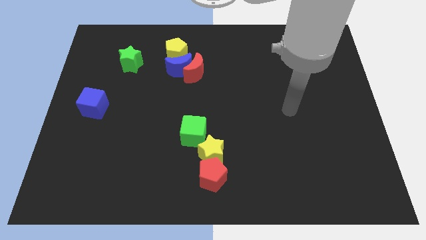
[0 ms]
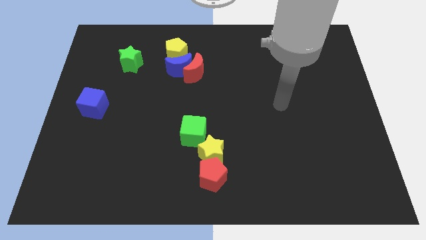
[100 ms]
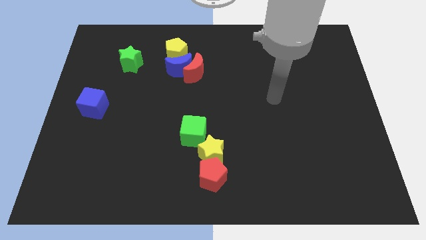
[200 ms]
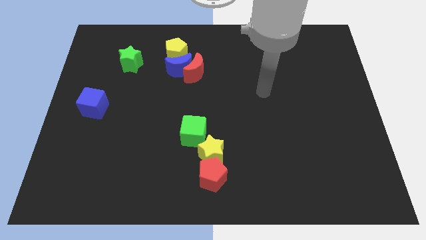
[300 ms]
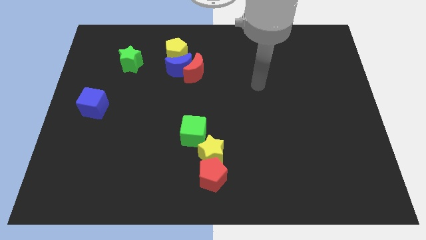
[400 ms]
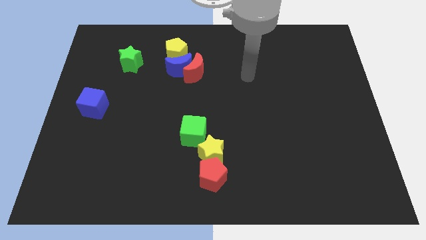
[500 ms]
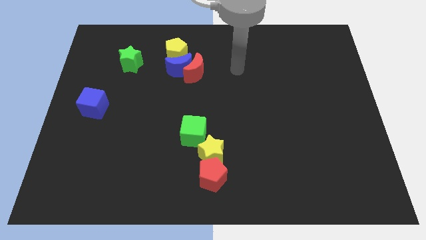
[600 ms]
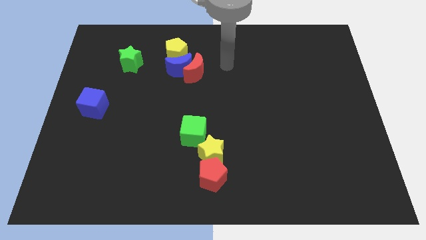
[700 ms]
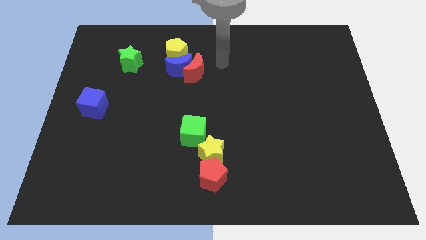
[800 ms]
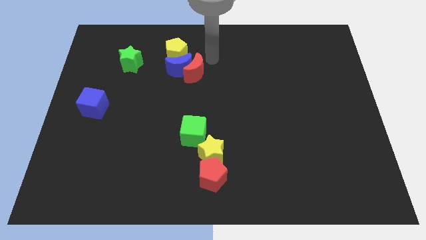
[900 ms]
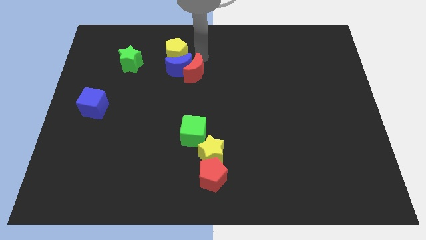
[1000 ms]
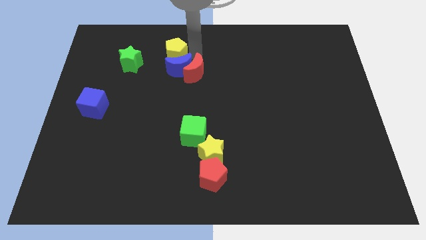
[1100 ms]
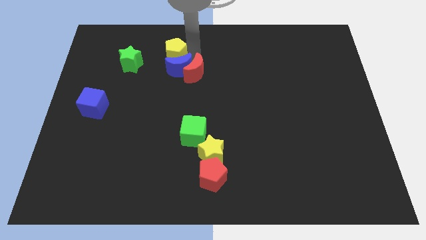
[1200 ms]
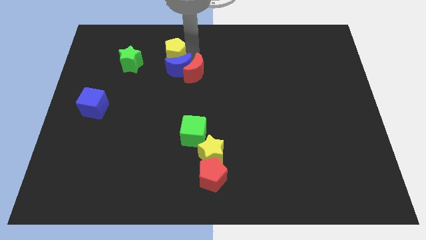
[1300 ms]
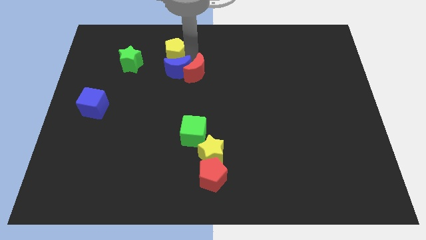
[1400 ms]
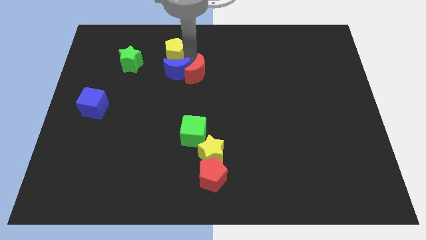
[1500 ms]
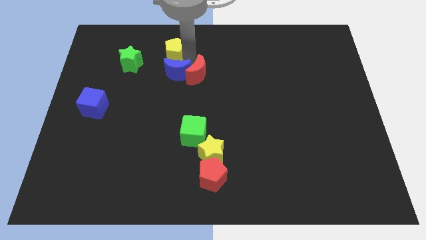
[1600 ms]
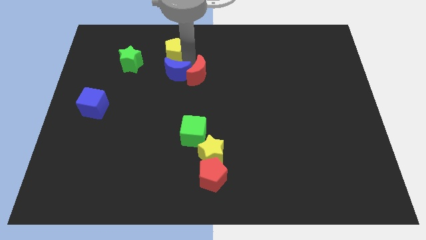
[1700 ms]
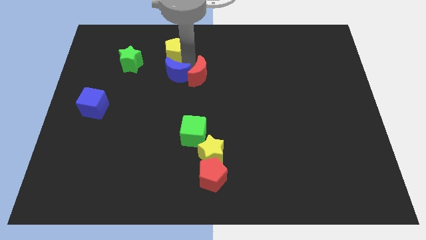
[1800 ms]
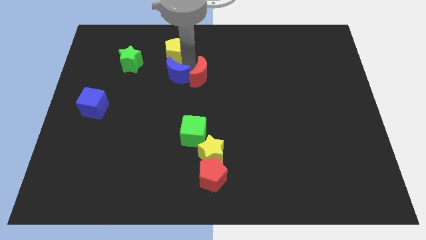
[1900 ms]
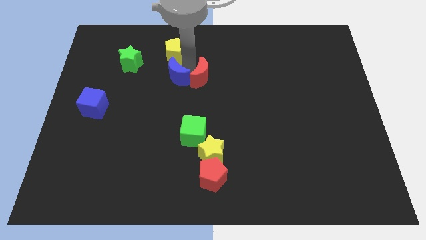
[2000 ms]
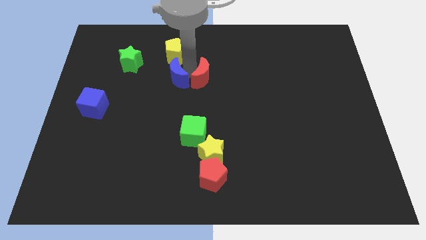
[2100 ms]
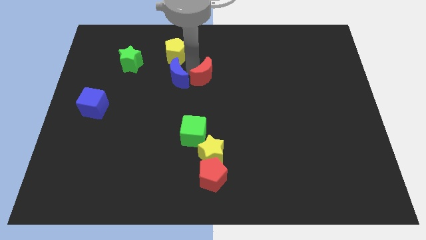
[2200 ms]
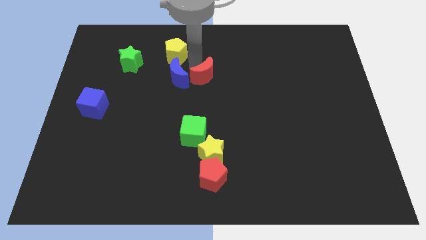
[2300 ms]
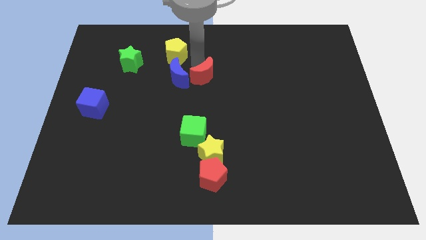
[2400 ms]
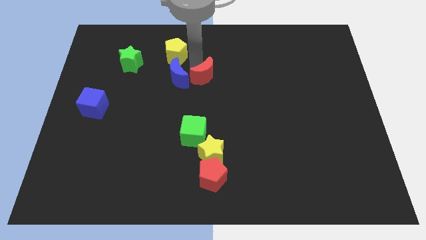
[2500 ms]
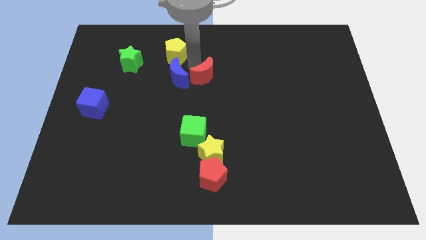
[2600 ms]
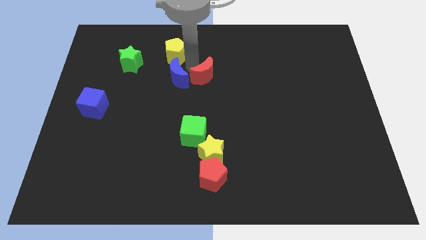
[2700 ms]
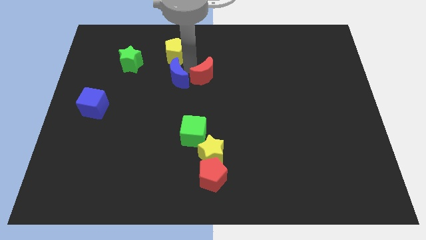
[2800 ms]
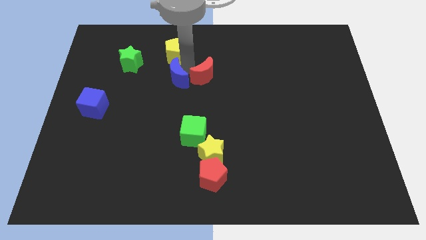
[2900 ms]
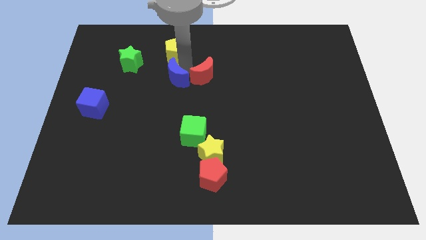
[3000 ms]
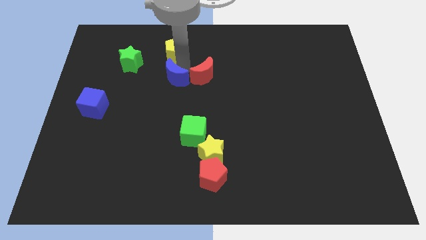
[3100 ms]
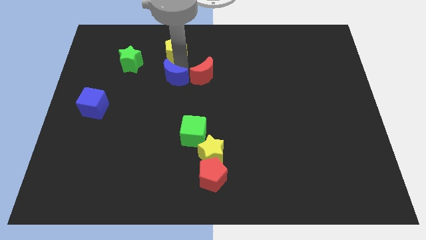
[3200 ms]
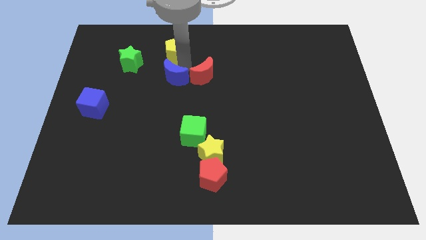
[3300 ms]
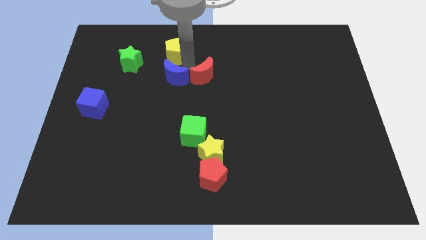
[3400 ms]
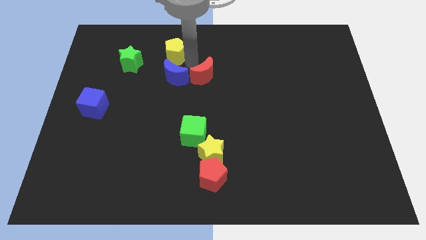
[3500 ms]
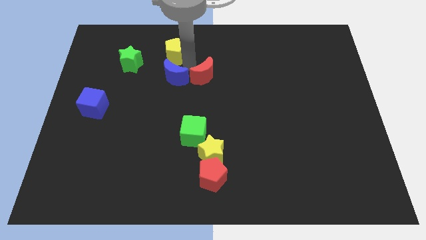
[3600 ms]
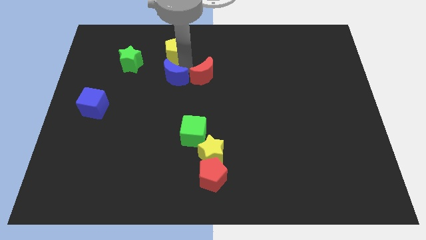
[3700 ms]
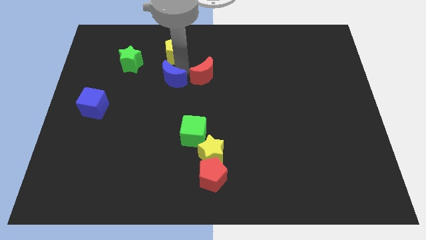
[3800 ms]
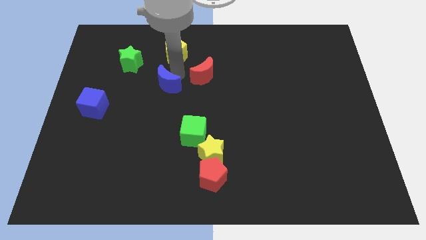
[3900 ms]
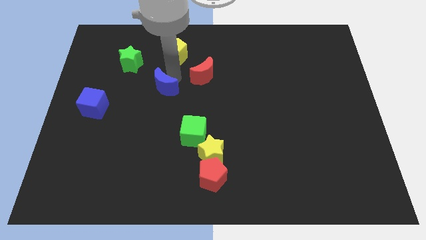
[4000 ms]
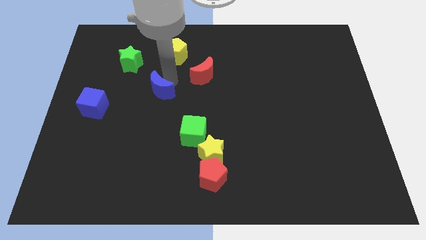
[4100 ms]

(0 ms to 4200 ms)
move the blue moon away from the red moon and yellow pentagon

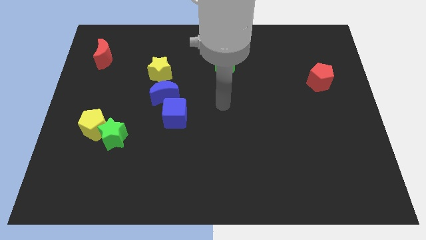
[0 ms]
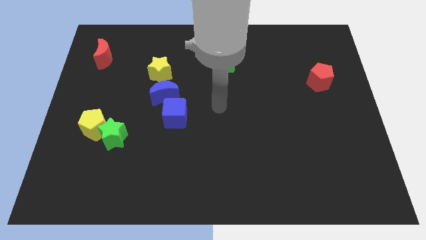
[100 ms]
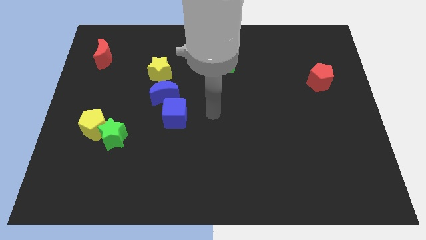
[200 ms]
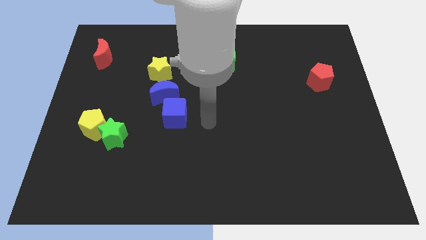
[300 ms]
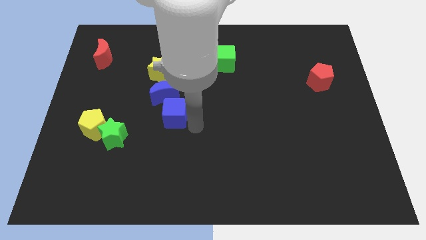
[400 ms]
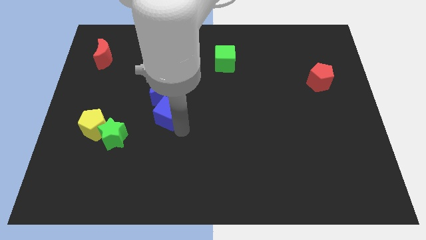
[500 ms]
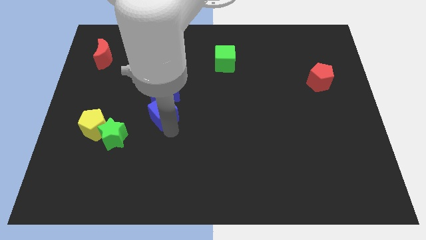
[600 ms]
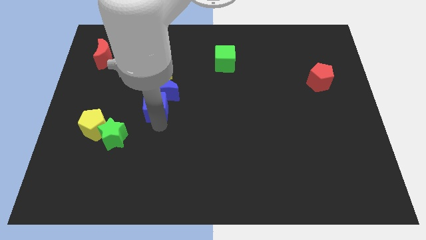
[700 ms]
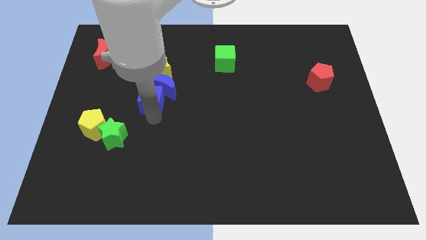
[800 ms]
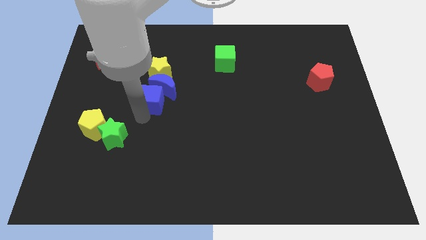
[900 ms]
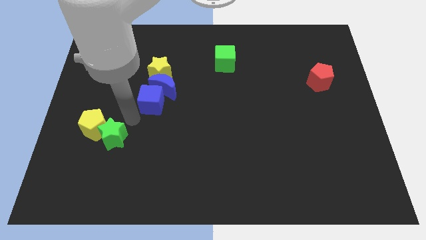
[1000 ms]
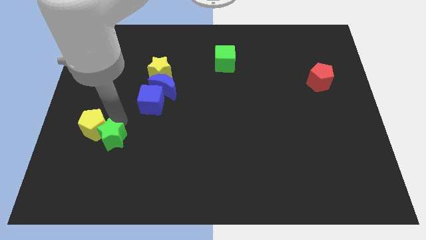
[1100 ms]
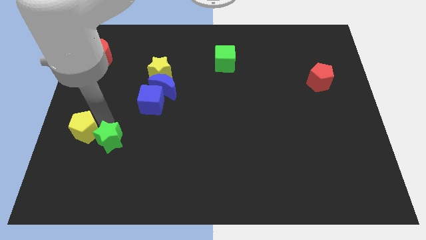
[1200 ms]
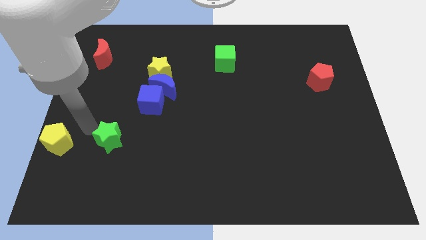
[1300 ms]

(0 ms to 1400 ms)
move the green star away from the yellow pentagon

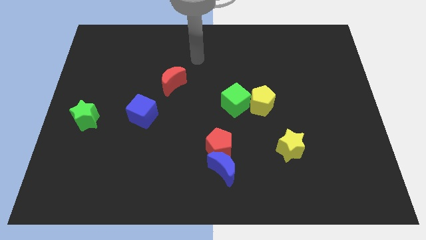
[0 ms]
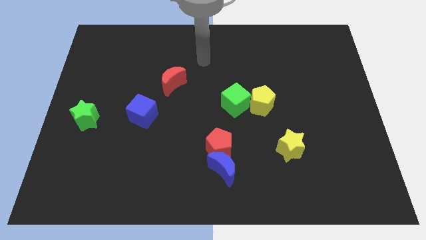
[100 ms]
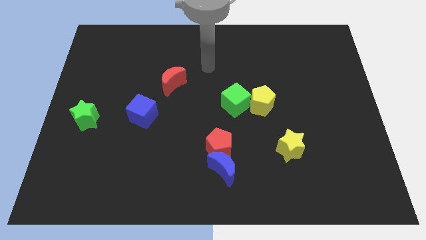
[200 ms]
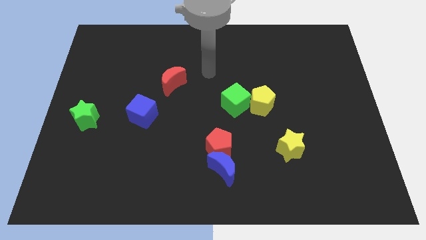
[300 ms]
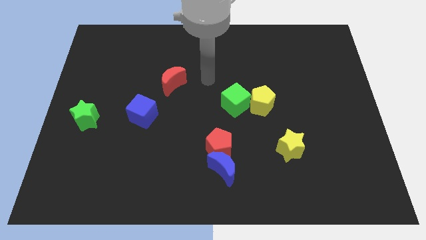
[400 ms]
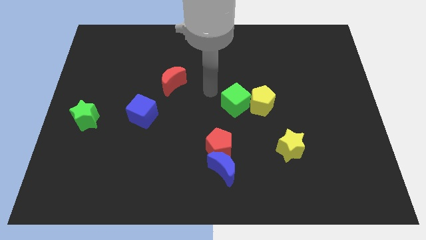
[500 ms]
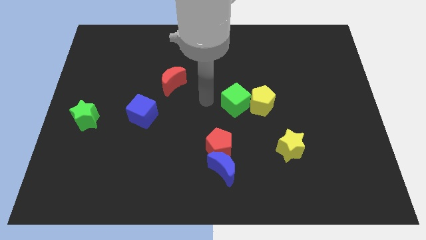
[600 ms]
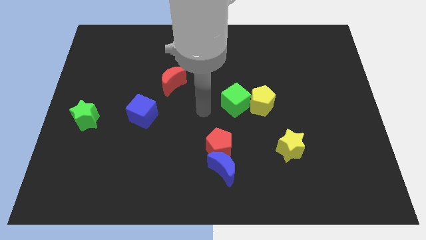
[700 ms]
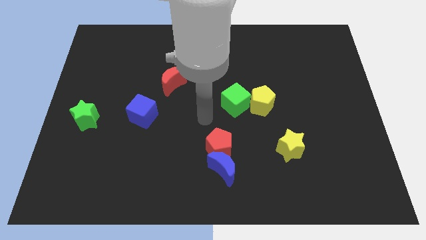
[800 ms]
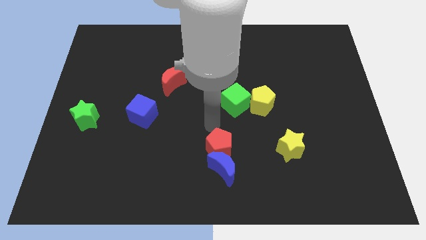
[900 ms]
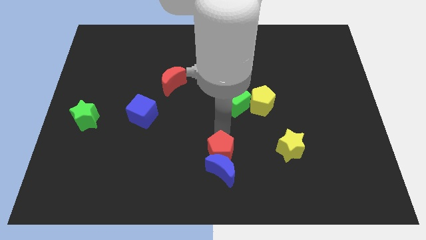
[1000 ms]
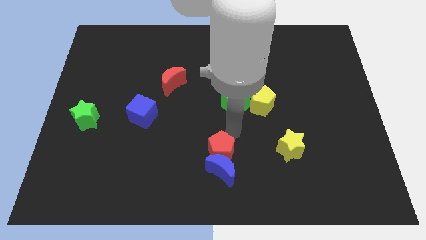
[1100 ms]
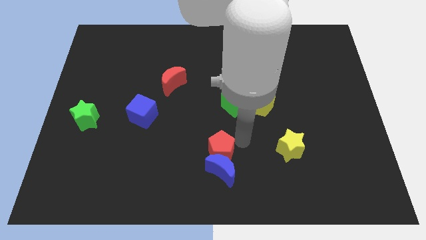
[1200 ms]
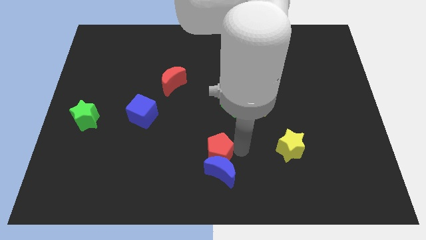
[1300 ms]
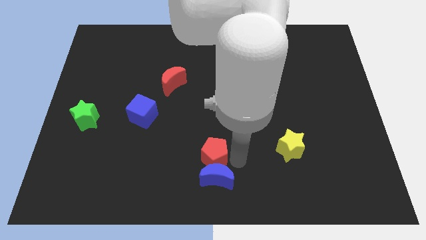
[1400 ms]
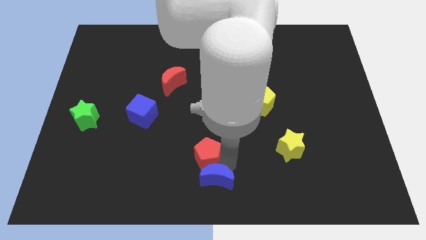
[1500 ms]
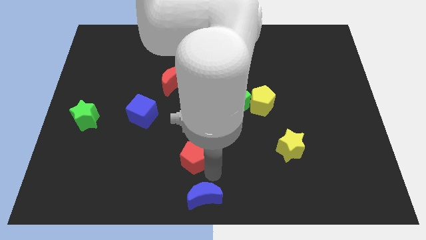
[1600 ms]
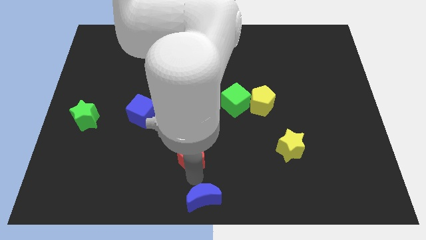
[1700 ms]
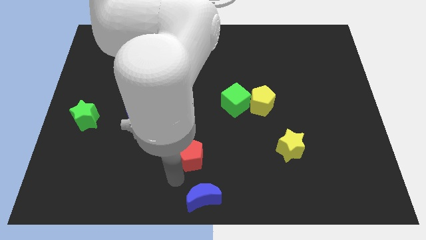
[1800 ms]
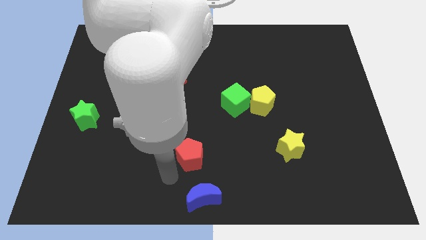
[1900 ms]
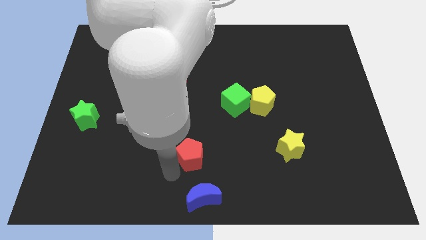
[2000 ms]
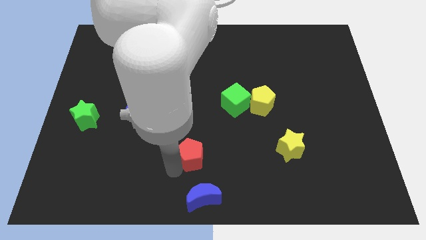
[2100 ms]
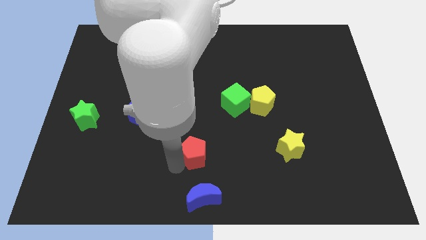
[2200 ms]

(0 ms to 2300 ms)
move the red pentagon away from the blue moon

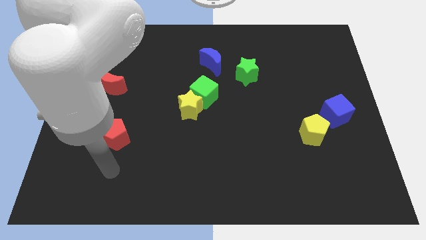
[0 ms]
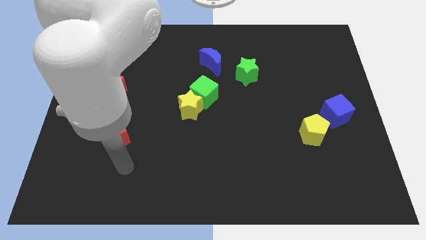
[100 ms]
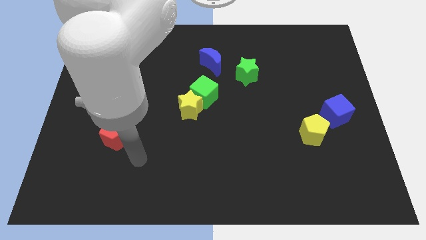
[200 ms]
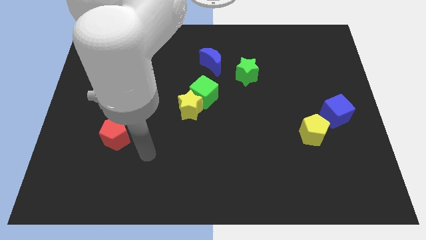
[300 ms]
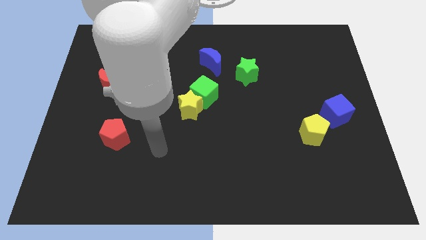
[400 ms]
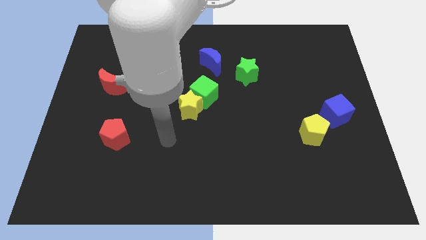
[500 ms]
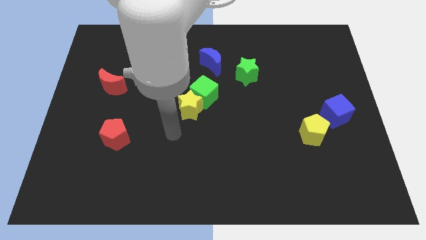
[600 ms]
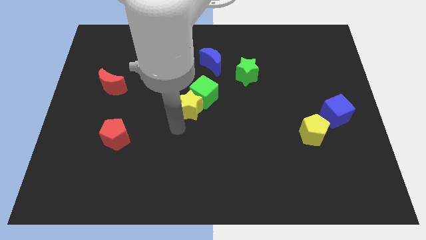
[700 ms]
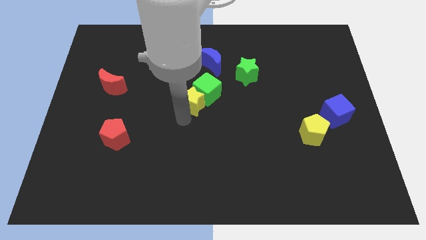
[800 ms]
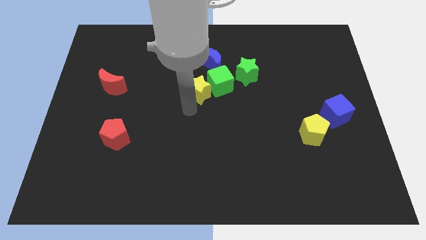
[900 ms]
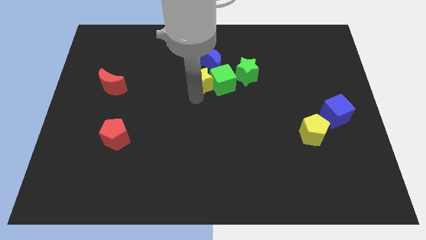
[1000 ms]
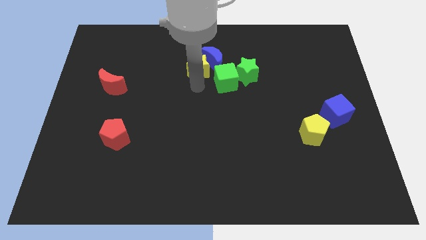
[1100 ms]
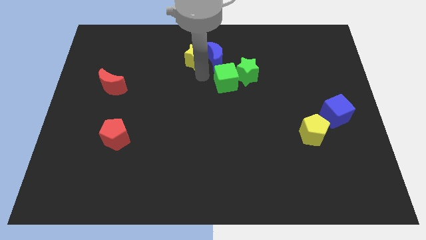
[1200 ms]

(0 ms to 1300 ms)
move the green cube away from the yellow star

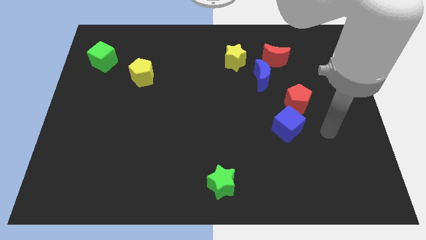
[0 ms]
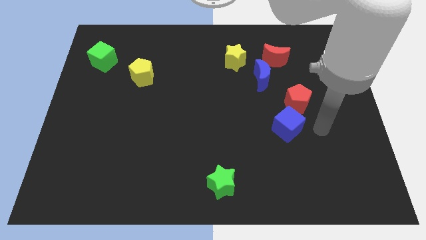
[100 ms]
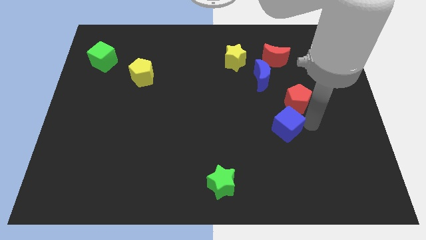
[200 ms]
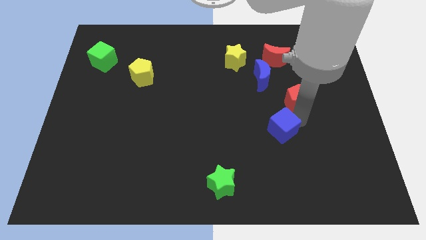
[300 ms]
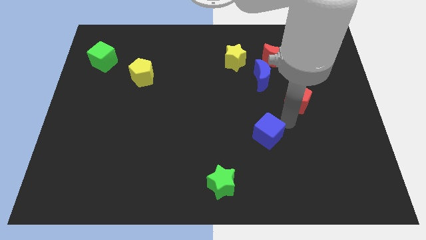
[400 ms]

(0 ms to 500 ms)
move the red pentagon away from the blue cube
